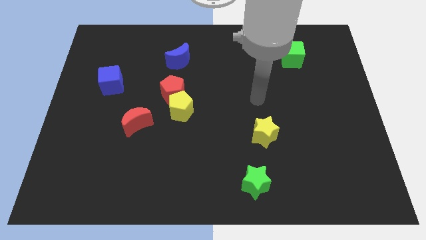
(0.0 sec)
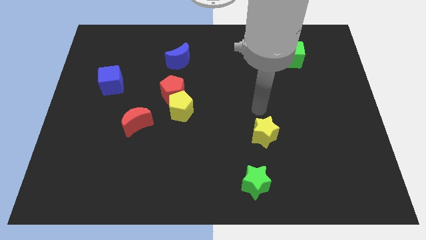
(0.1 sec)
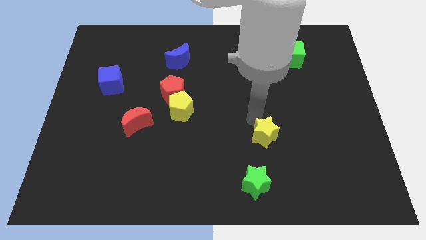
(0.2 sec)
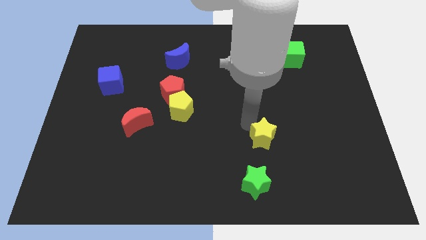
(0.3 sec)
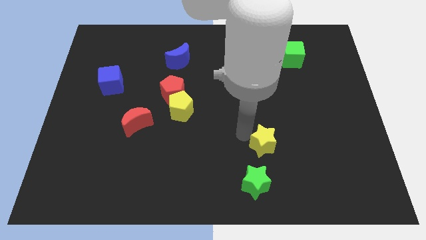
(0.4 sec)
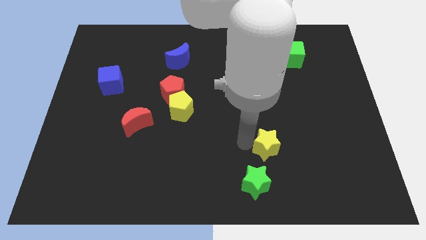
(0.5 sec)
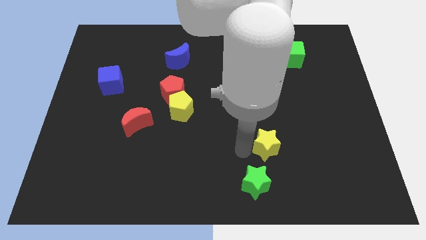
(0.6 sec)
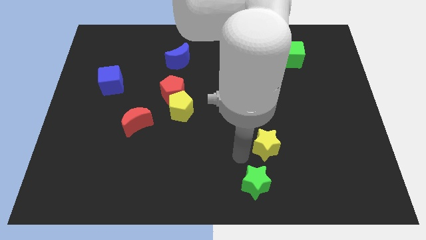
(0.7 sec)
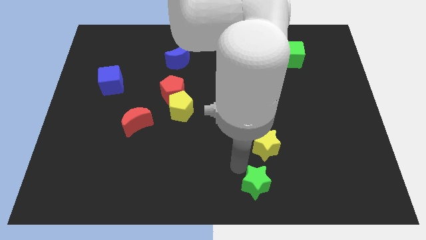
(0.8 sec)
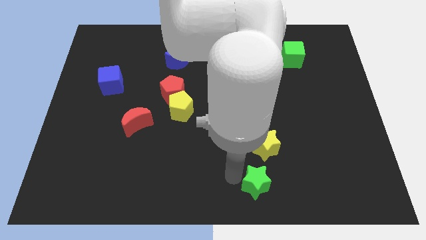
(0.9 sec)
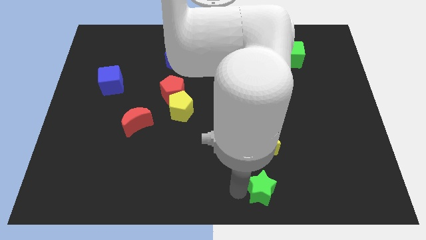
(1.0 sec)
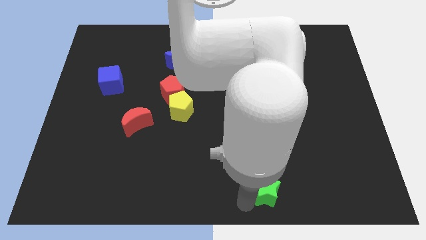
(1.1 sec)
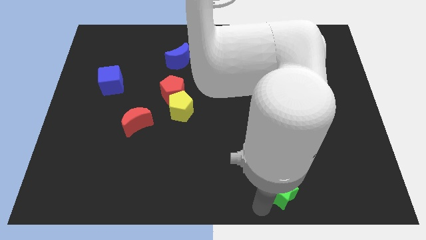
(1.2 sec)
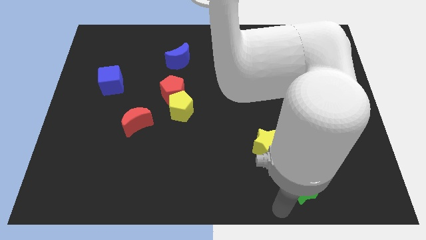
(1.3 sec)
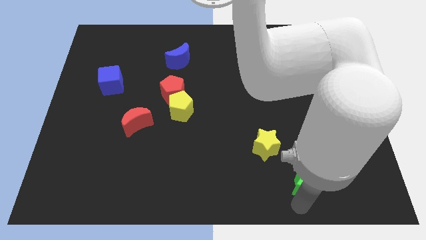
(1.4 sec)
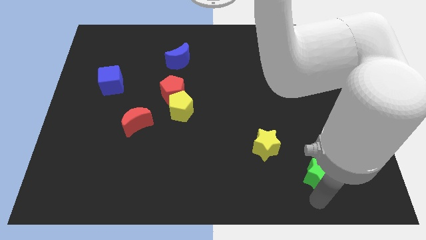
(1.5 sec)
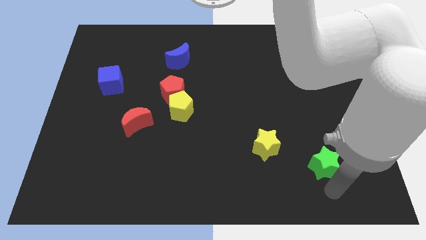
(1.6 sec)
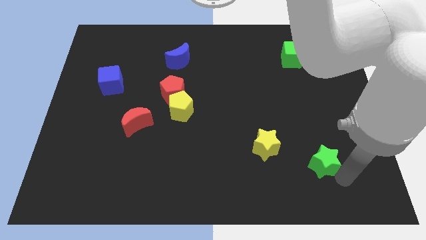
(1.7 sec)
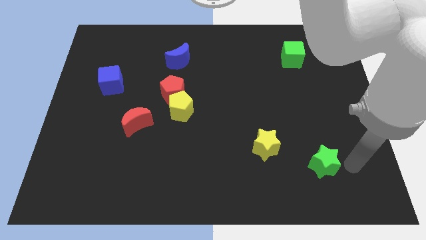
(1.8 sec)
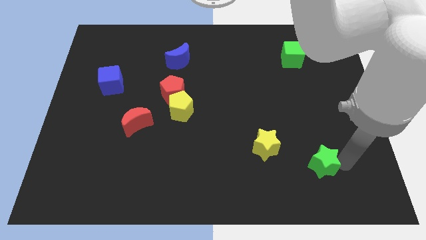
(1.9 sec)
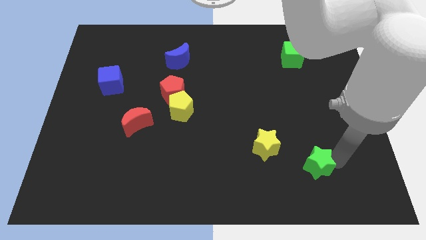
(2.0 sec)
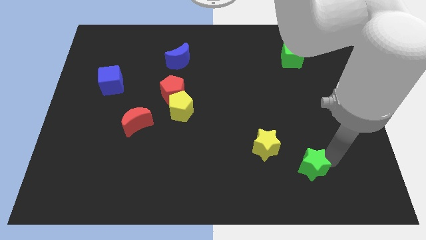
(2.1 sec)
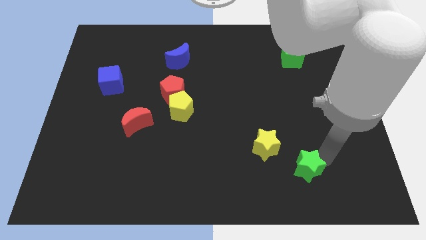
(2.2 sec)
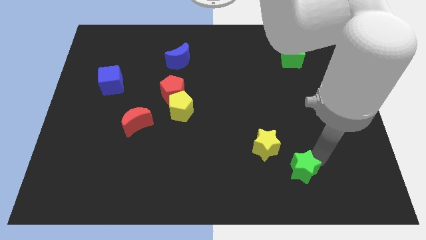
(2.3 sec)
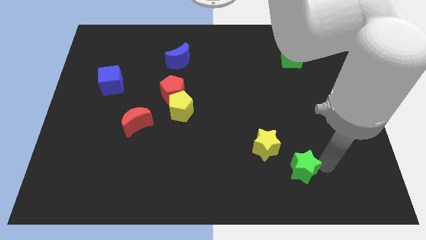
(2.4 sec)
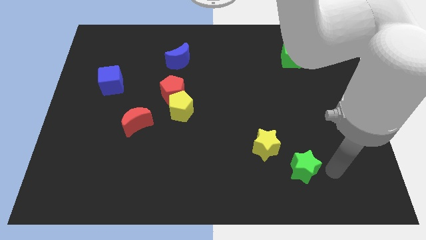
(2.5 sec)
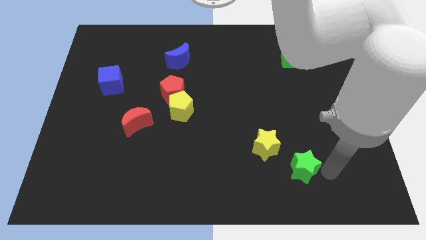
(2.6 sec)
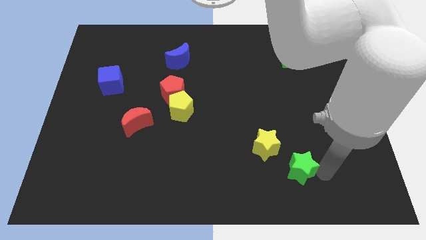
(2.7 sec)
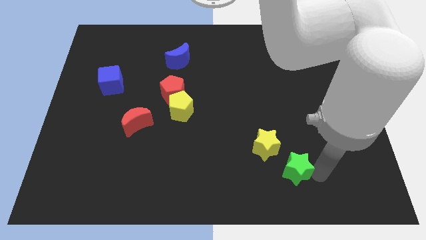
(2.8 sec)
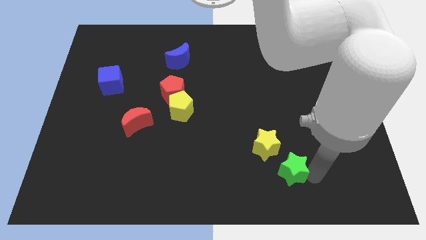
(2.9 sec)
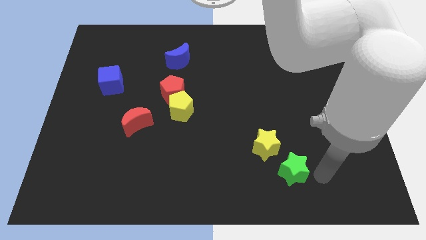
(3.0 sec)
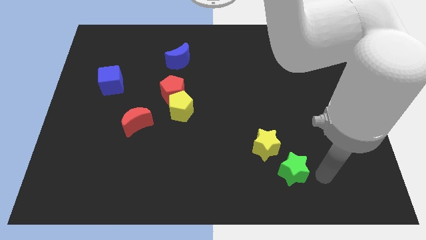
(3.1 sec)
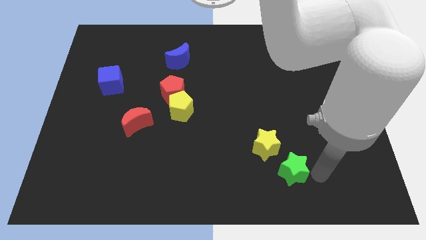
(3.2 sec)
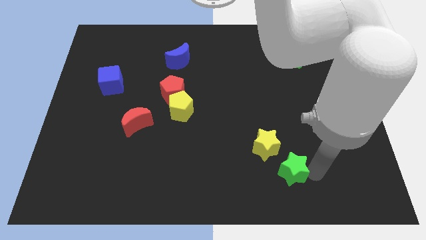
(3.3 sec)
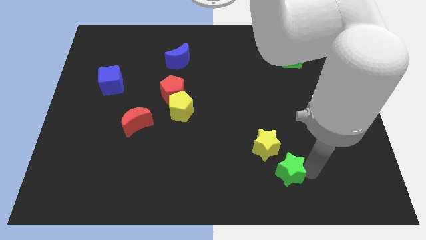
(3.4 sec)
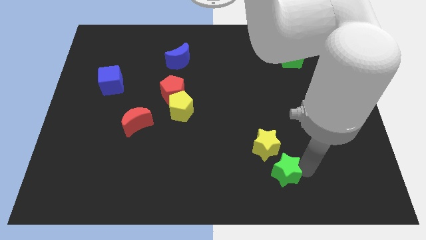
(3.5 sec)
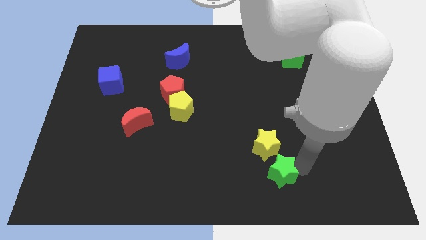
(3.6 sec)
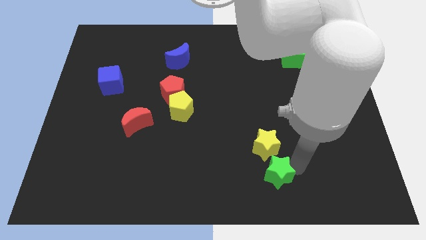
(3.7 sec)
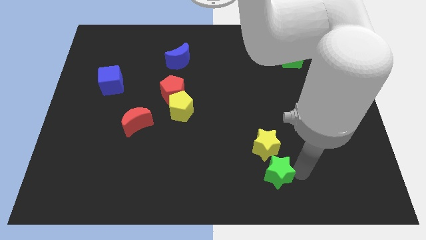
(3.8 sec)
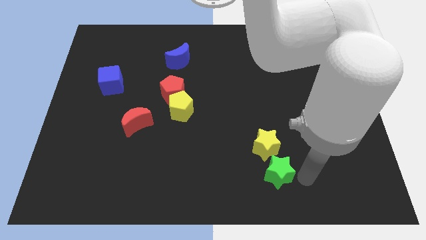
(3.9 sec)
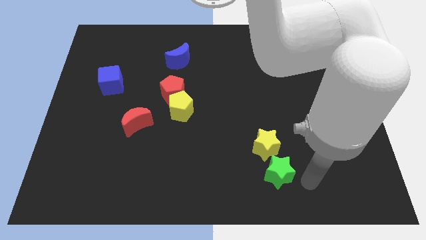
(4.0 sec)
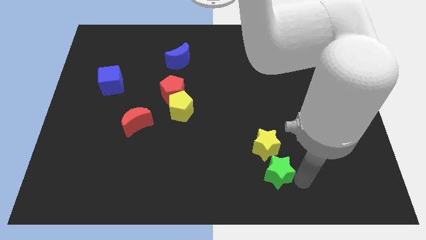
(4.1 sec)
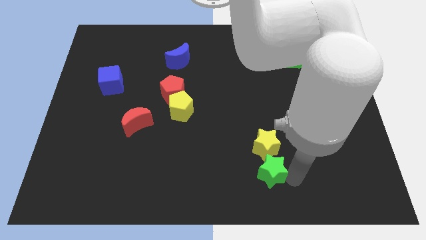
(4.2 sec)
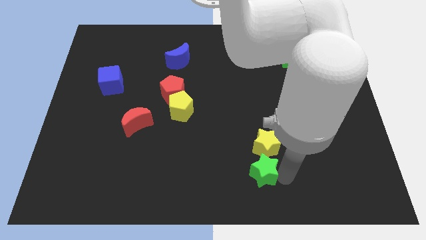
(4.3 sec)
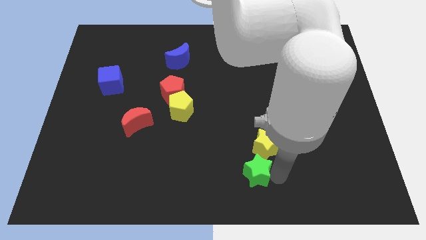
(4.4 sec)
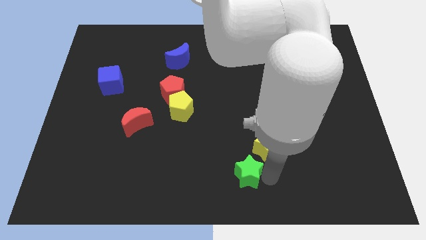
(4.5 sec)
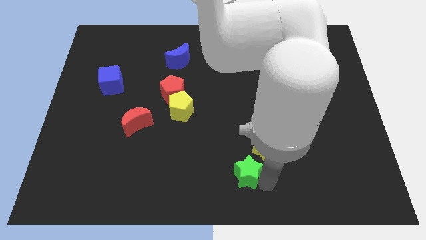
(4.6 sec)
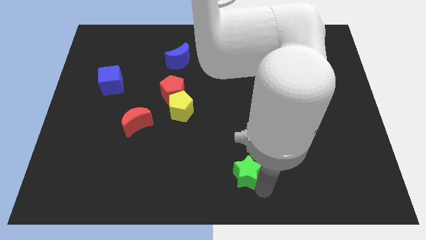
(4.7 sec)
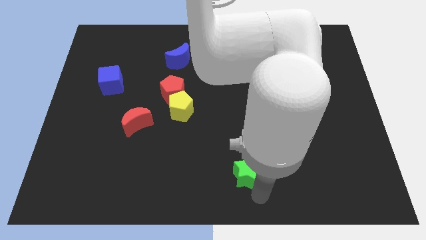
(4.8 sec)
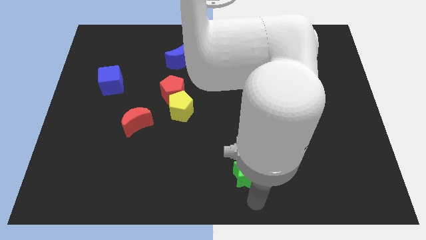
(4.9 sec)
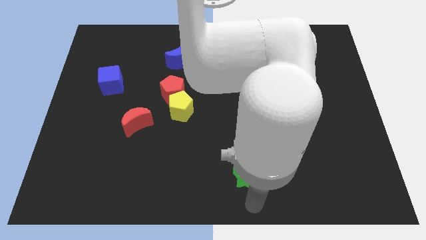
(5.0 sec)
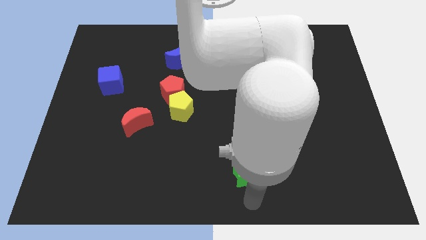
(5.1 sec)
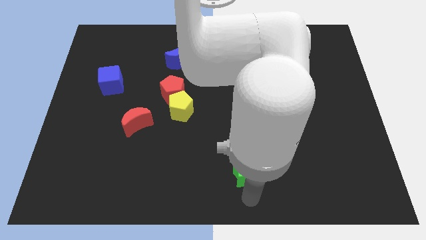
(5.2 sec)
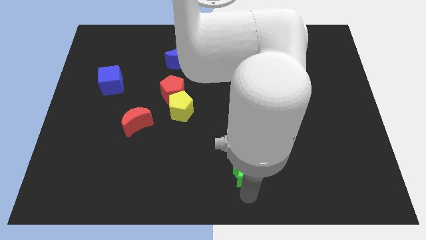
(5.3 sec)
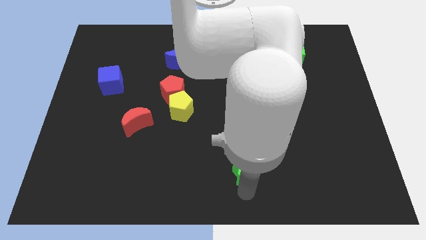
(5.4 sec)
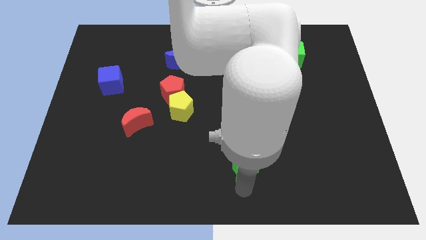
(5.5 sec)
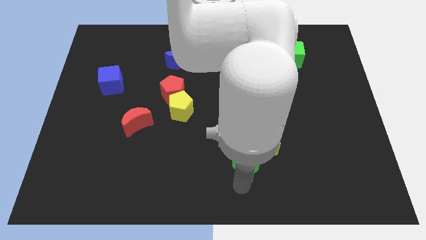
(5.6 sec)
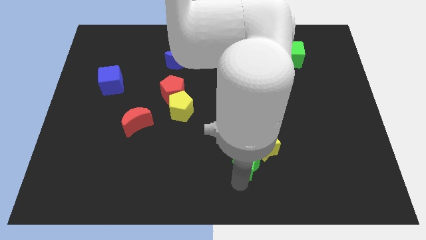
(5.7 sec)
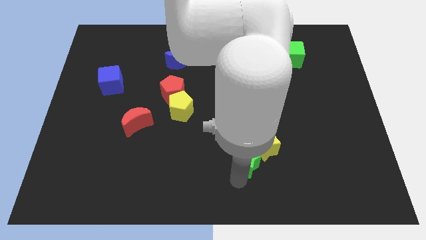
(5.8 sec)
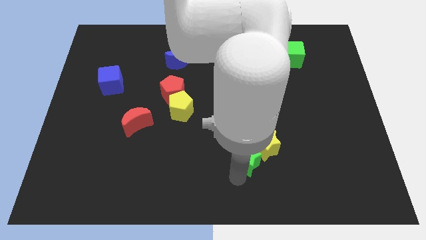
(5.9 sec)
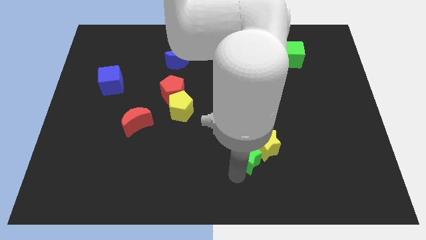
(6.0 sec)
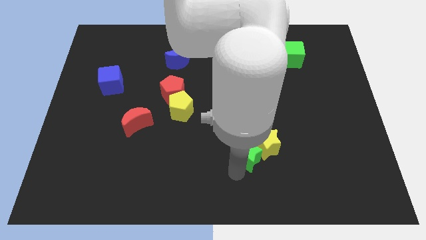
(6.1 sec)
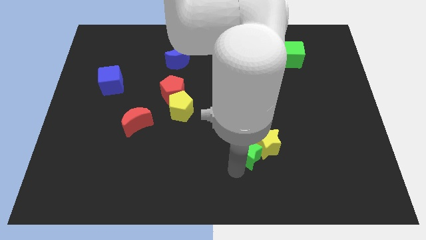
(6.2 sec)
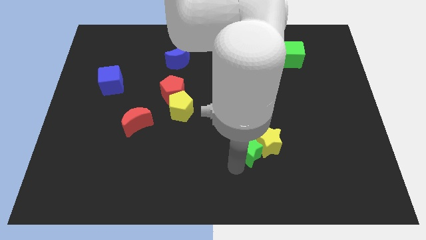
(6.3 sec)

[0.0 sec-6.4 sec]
move the green star upwards somewhat

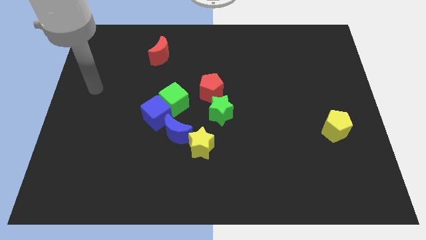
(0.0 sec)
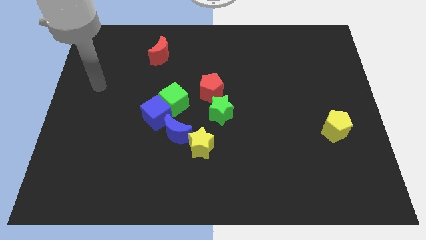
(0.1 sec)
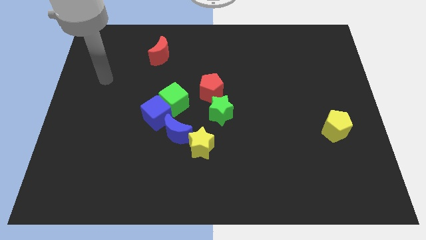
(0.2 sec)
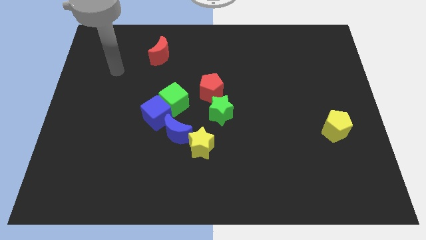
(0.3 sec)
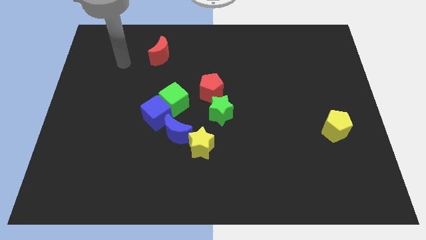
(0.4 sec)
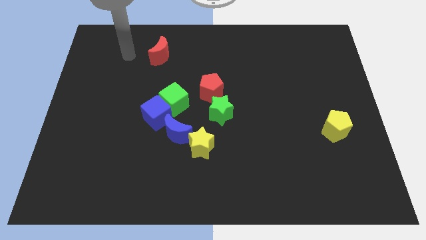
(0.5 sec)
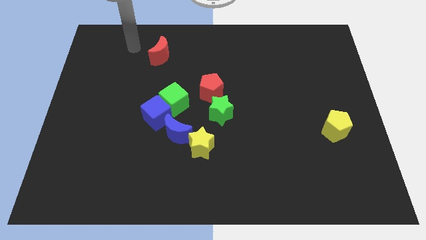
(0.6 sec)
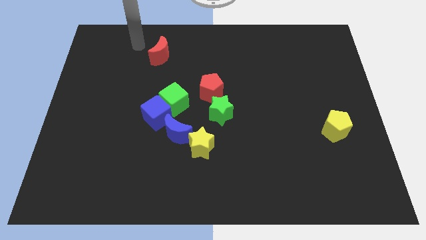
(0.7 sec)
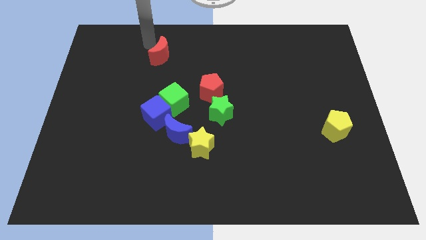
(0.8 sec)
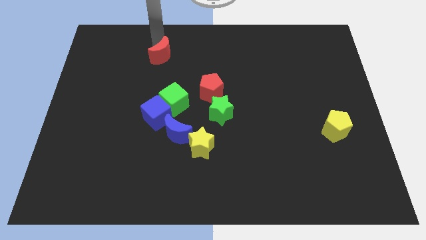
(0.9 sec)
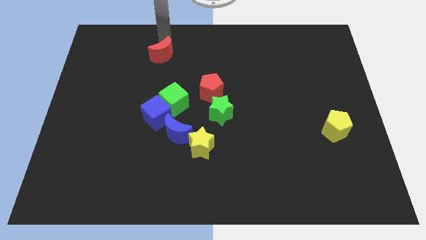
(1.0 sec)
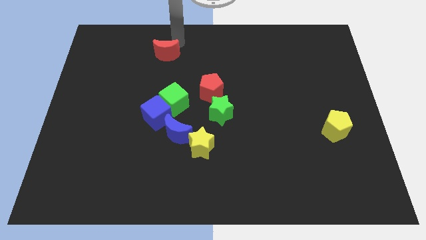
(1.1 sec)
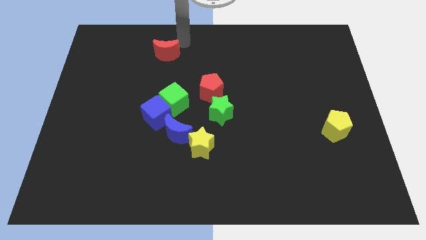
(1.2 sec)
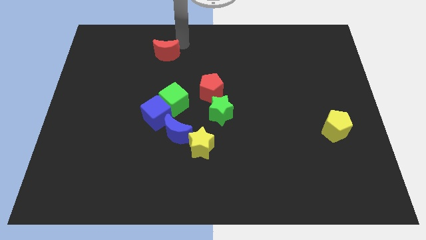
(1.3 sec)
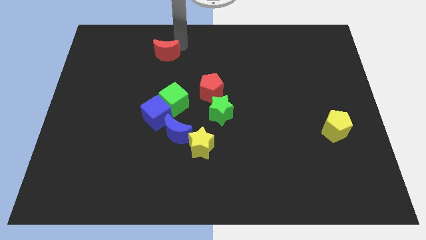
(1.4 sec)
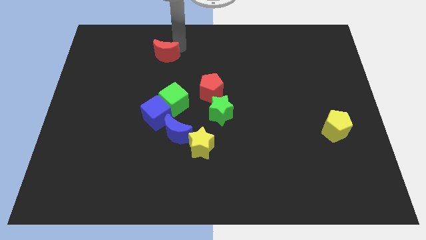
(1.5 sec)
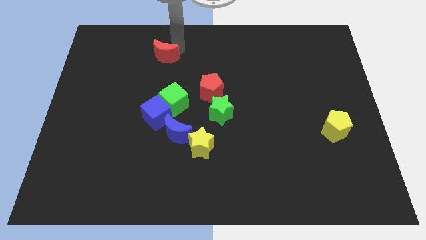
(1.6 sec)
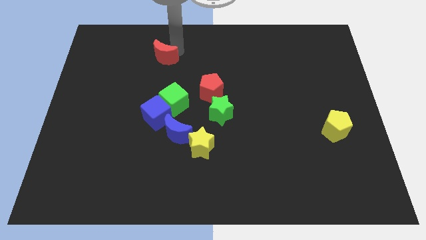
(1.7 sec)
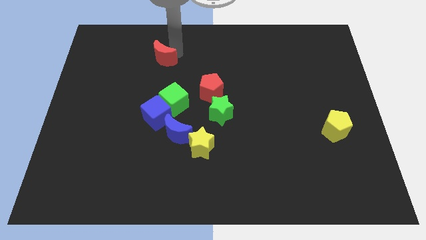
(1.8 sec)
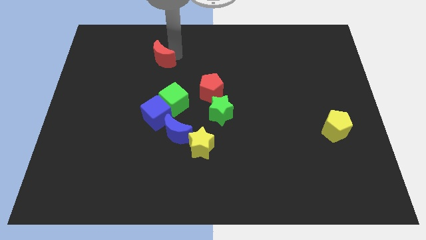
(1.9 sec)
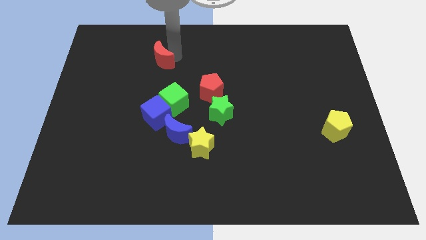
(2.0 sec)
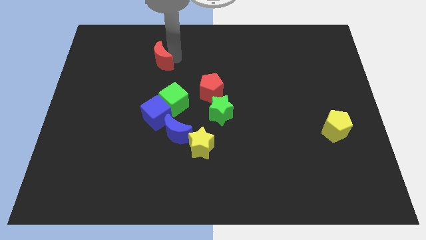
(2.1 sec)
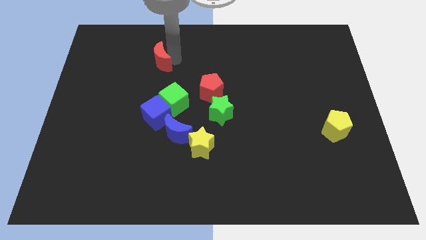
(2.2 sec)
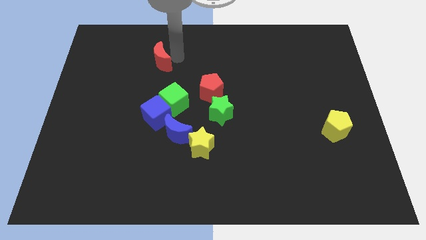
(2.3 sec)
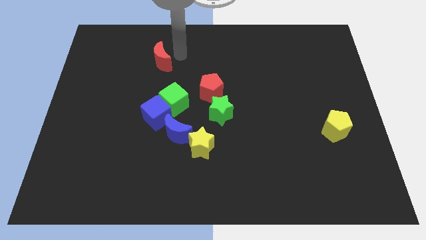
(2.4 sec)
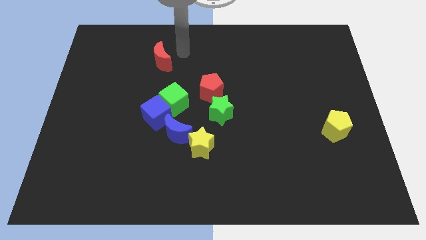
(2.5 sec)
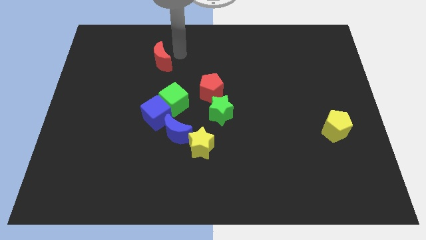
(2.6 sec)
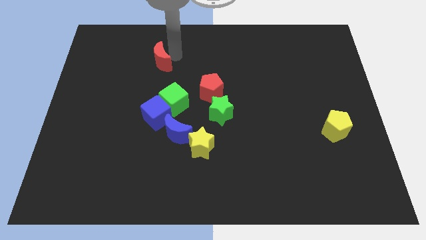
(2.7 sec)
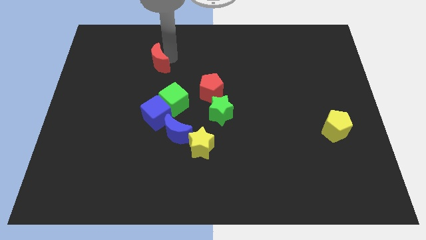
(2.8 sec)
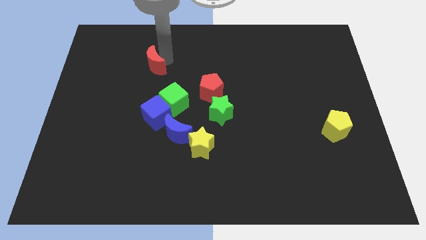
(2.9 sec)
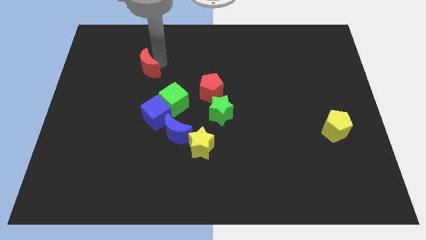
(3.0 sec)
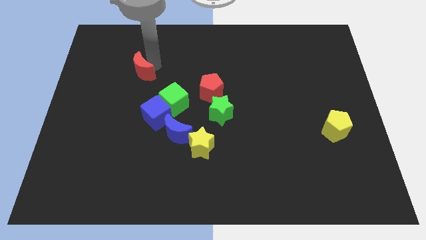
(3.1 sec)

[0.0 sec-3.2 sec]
move the red moon a little down and left diagonally
